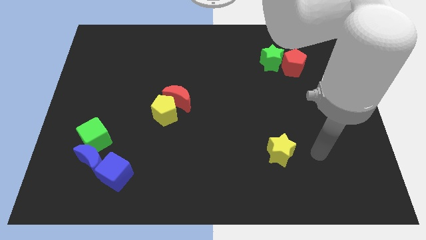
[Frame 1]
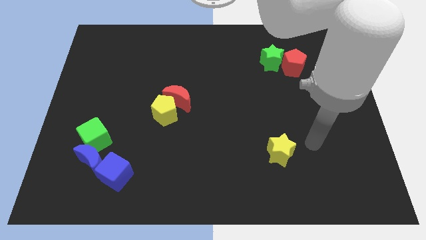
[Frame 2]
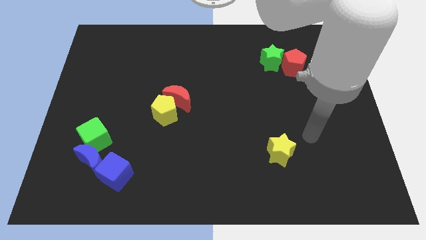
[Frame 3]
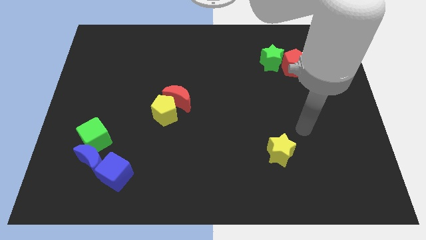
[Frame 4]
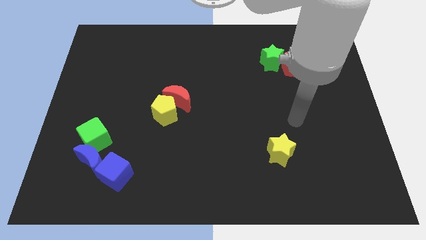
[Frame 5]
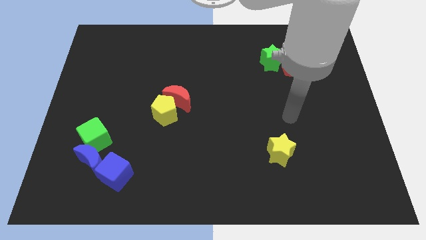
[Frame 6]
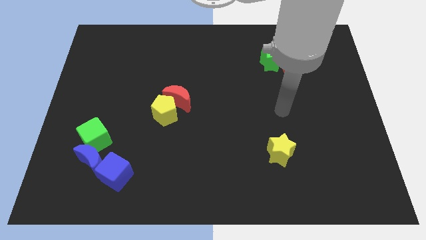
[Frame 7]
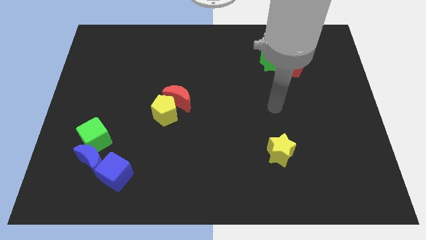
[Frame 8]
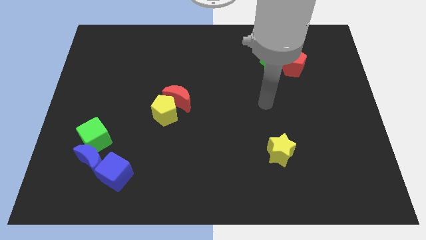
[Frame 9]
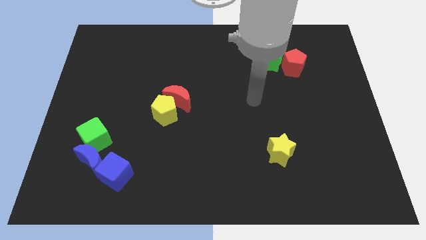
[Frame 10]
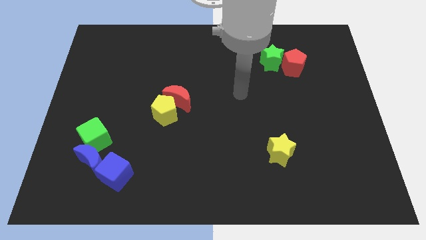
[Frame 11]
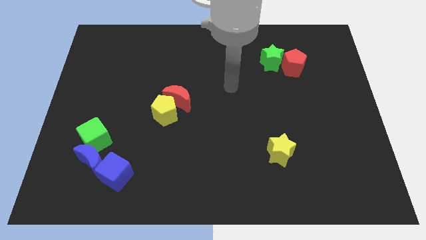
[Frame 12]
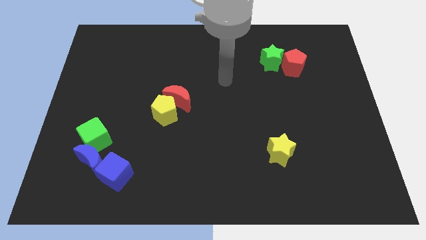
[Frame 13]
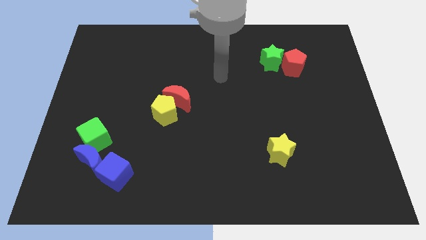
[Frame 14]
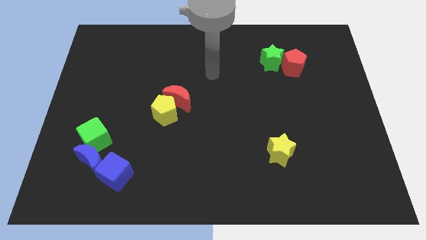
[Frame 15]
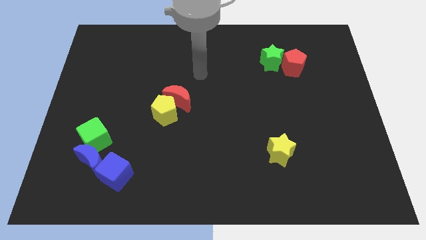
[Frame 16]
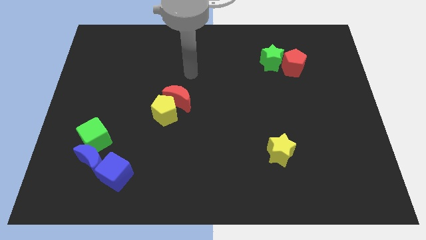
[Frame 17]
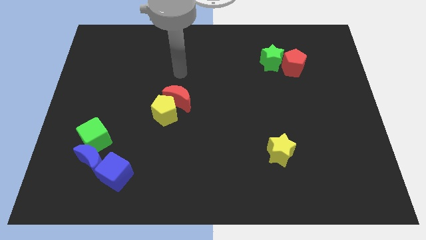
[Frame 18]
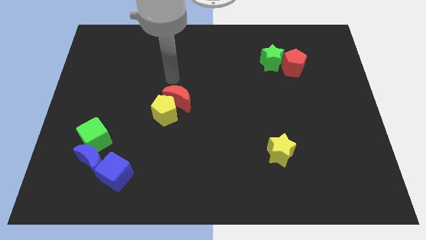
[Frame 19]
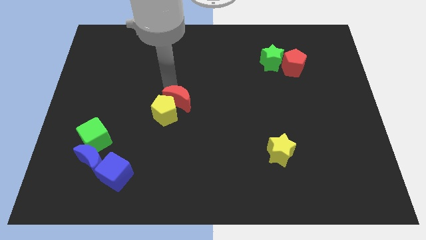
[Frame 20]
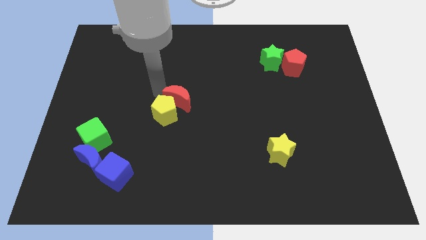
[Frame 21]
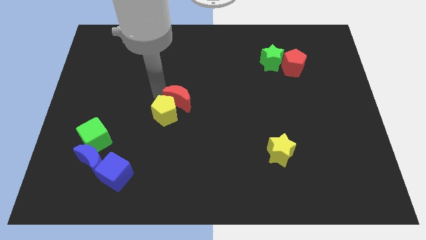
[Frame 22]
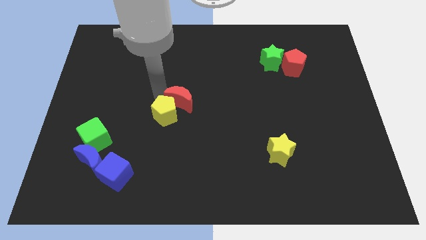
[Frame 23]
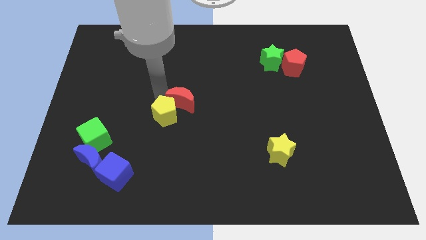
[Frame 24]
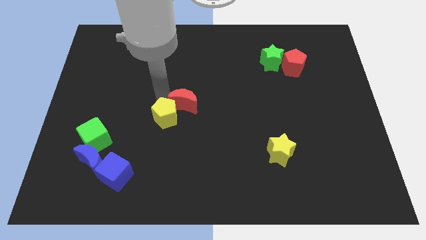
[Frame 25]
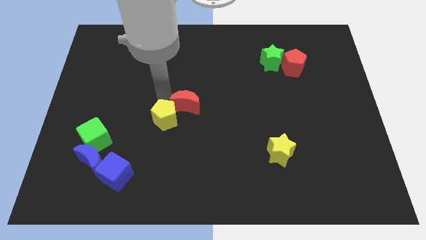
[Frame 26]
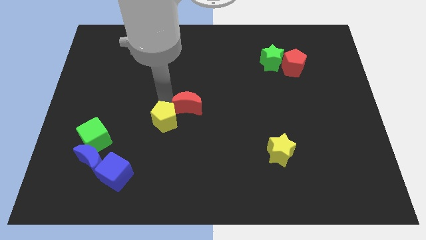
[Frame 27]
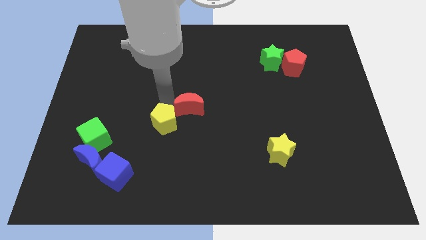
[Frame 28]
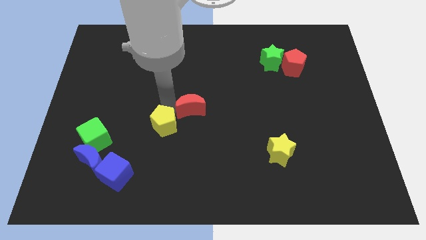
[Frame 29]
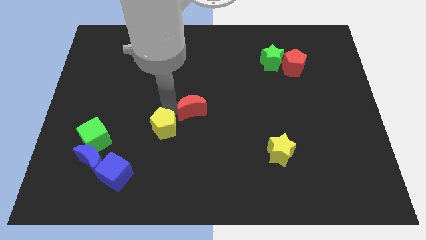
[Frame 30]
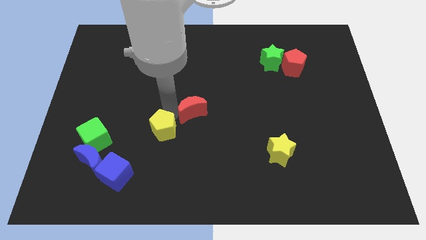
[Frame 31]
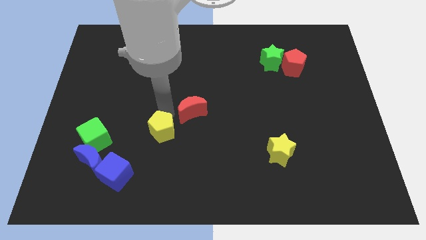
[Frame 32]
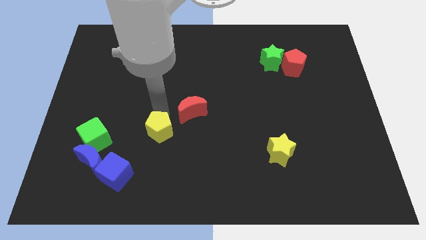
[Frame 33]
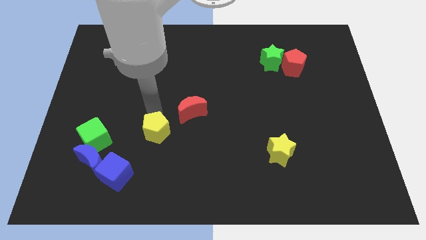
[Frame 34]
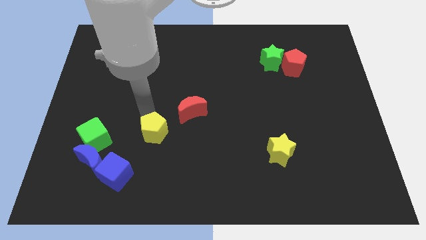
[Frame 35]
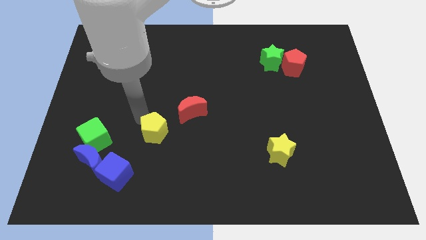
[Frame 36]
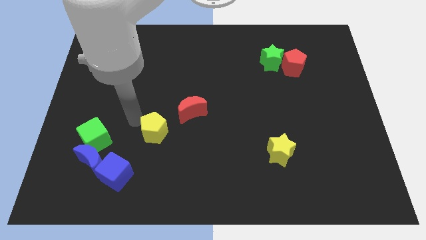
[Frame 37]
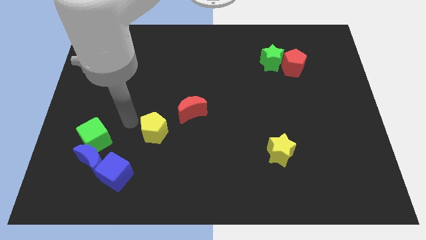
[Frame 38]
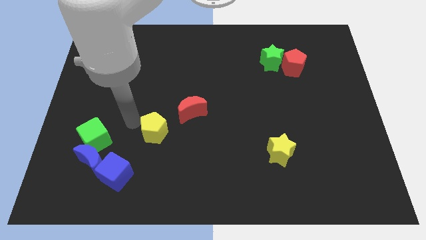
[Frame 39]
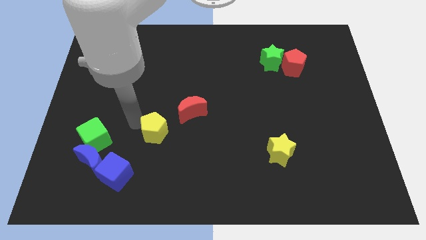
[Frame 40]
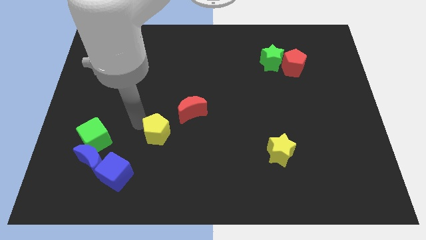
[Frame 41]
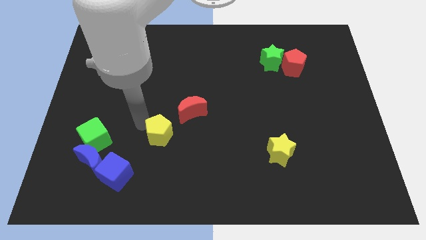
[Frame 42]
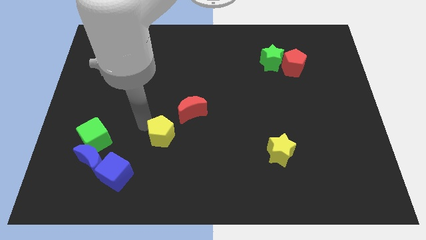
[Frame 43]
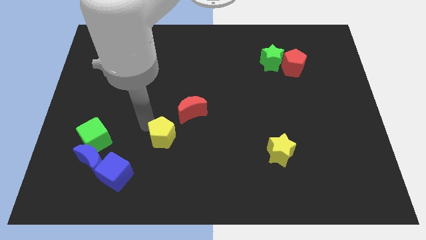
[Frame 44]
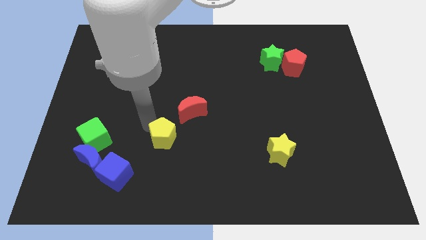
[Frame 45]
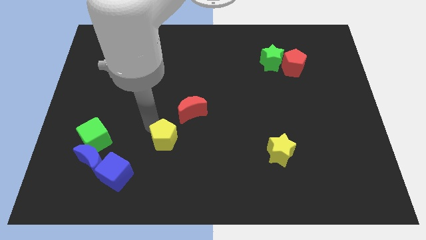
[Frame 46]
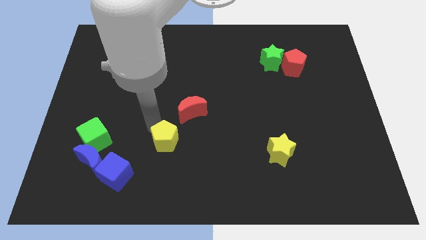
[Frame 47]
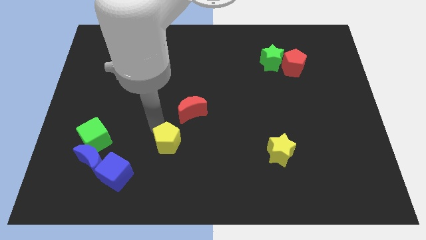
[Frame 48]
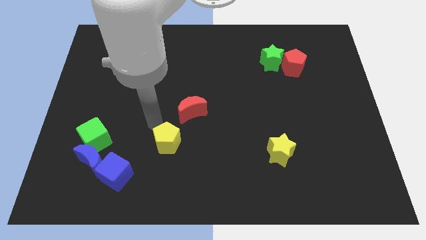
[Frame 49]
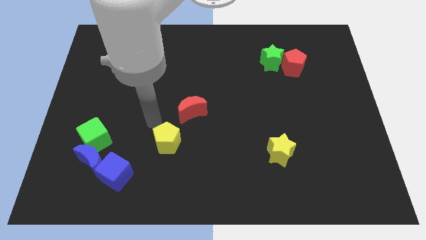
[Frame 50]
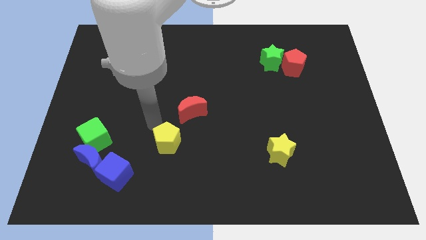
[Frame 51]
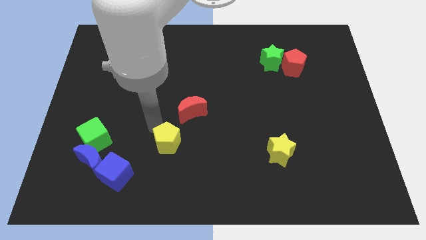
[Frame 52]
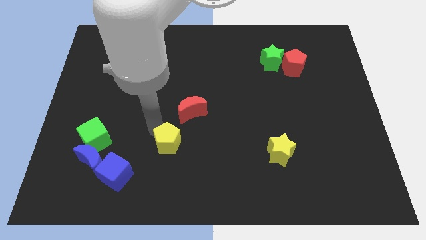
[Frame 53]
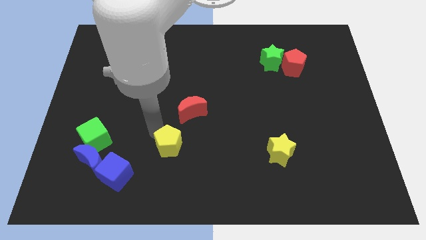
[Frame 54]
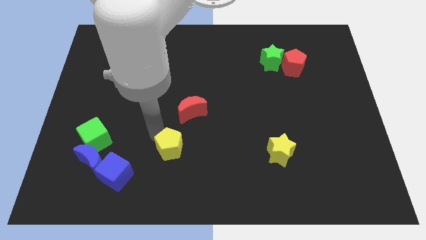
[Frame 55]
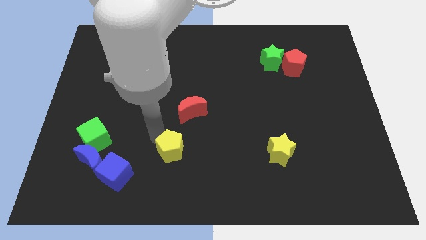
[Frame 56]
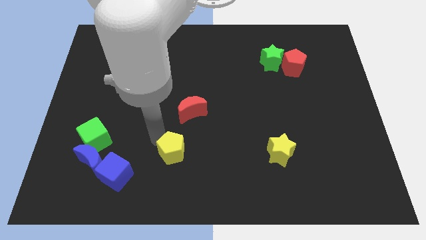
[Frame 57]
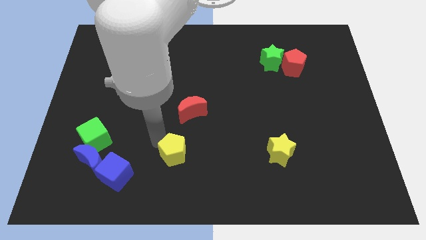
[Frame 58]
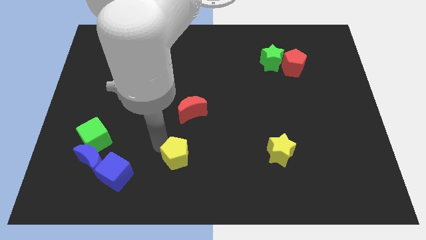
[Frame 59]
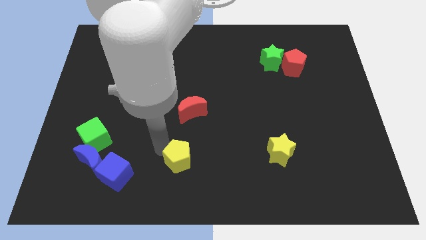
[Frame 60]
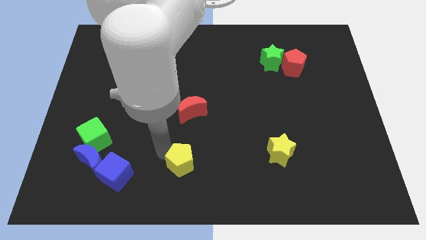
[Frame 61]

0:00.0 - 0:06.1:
slide the yellow pentagon to the bottom

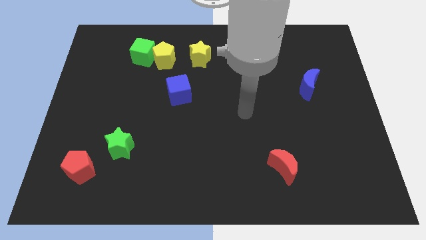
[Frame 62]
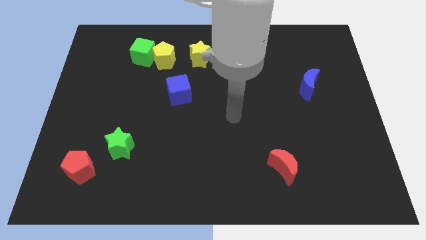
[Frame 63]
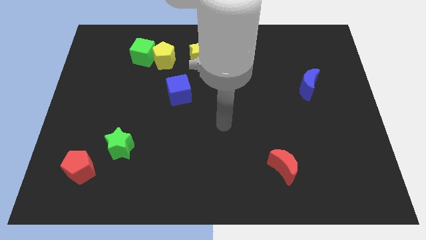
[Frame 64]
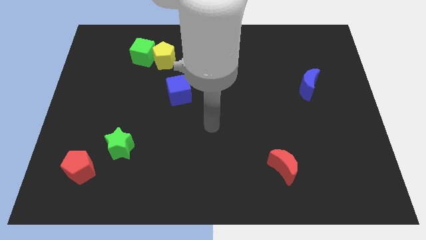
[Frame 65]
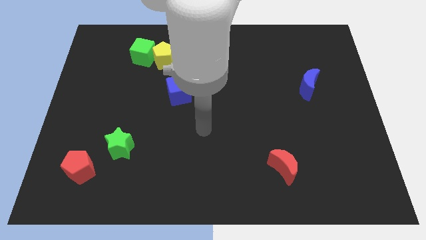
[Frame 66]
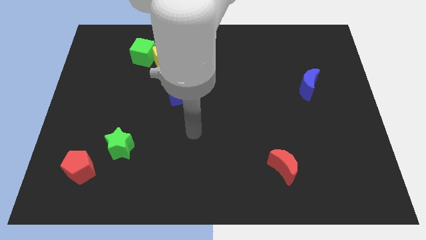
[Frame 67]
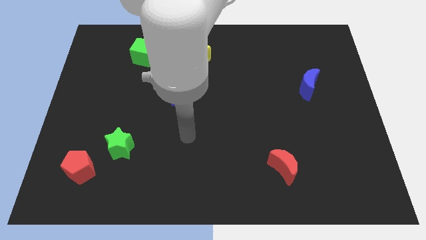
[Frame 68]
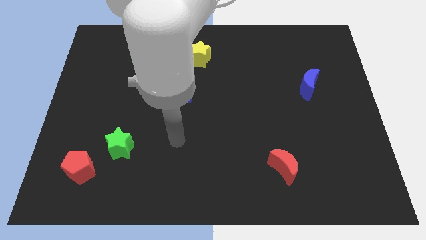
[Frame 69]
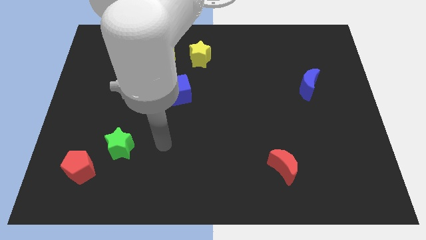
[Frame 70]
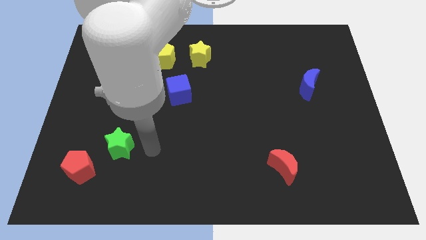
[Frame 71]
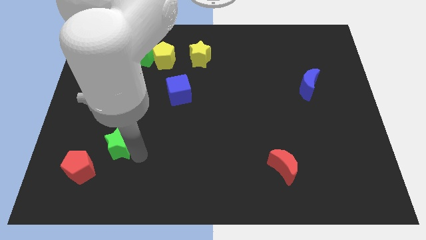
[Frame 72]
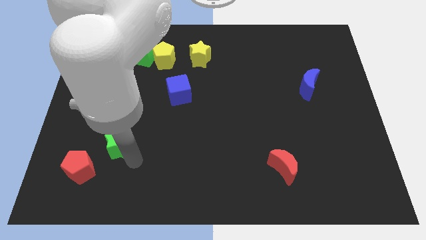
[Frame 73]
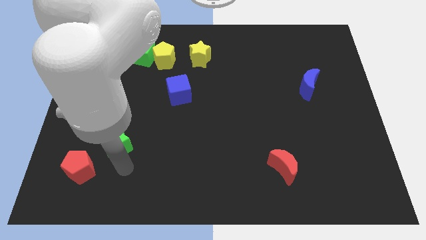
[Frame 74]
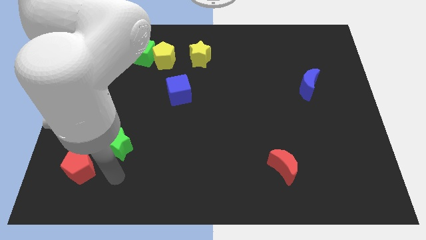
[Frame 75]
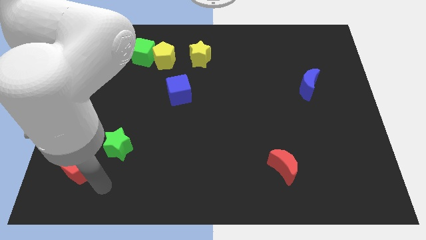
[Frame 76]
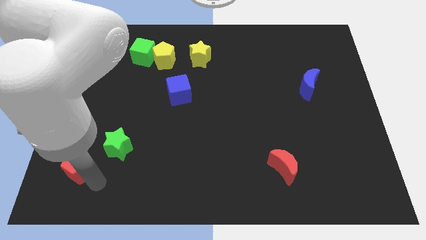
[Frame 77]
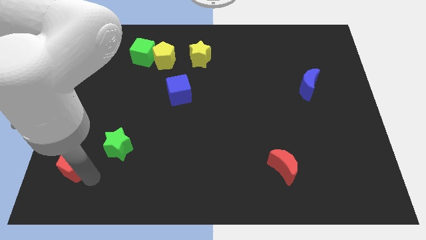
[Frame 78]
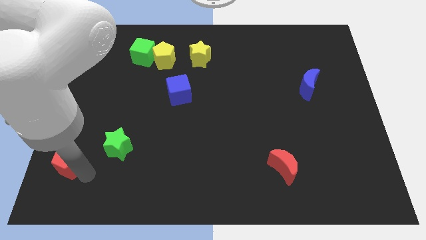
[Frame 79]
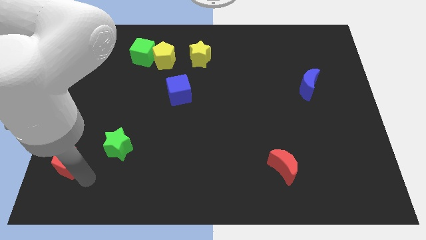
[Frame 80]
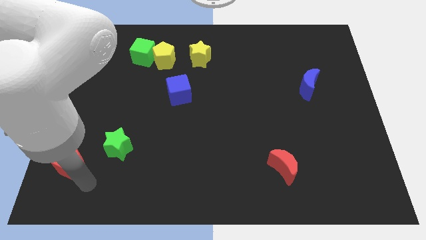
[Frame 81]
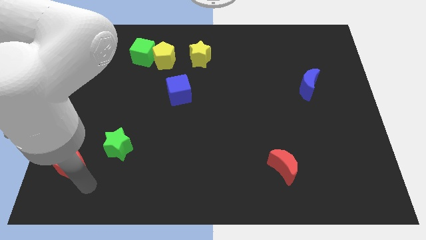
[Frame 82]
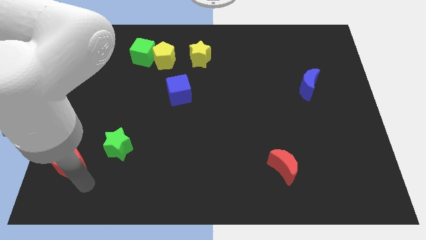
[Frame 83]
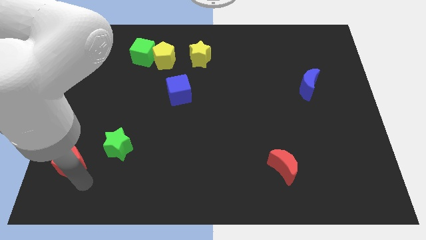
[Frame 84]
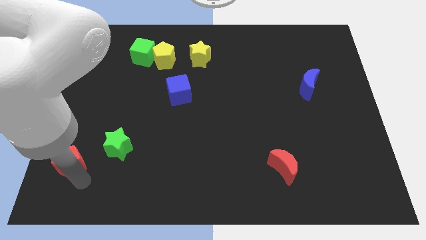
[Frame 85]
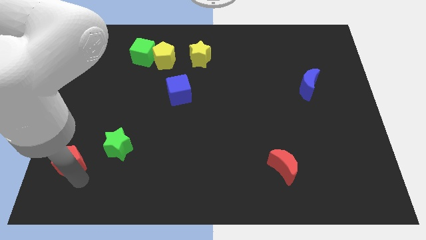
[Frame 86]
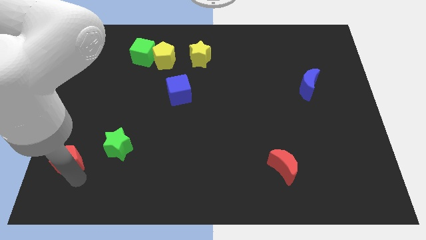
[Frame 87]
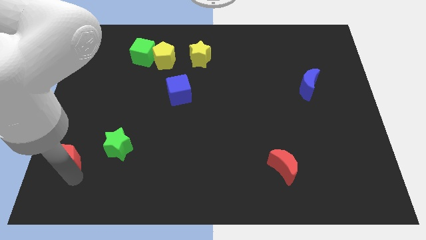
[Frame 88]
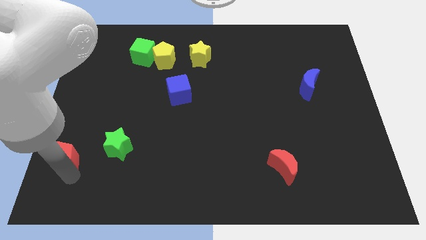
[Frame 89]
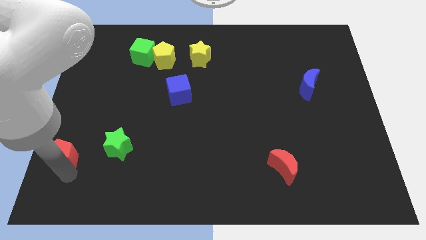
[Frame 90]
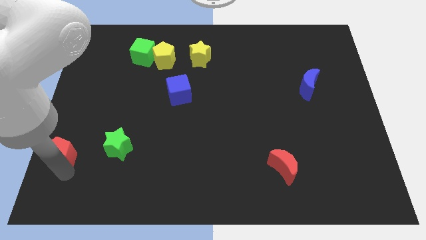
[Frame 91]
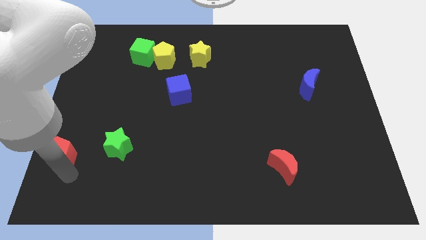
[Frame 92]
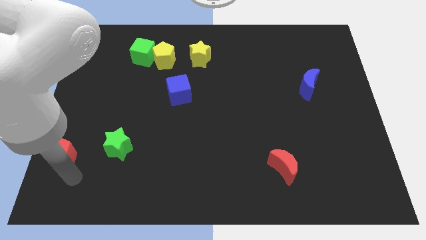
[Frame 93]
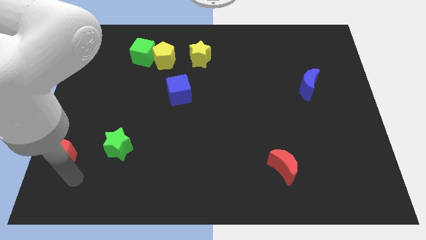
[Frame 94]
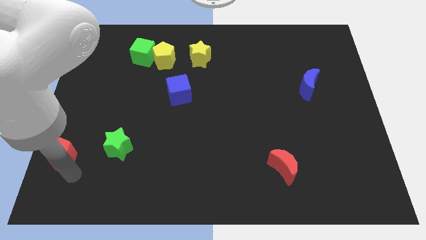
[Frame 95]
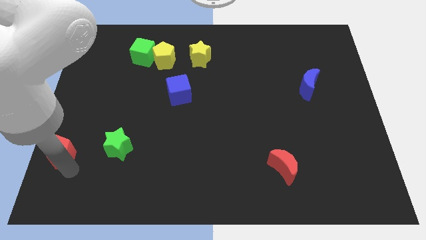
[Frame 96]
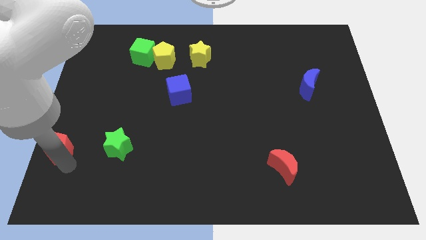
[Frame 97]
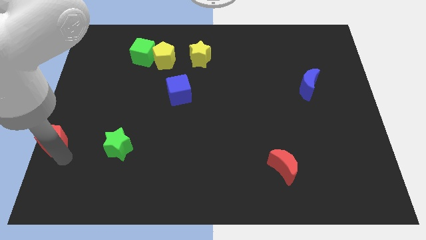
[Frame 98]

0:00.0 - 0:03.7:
put the red pentagon to the left side of the board
